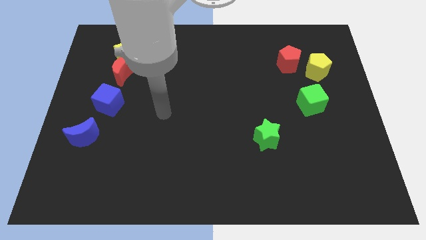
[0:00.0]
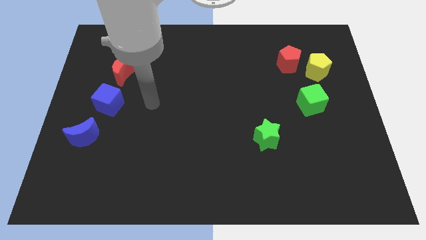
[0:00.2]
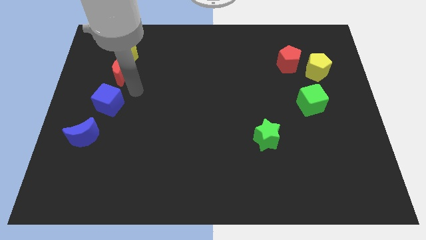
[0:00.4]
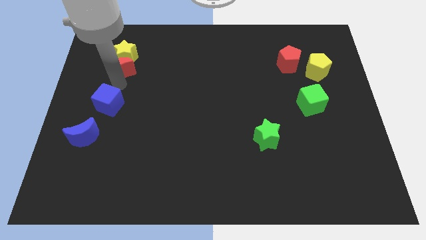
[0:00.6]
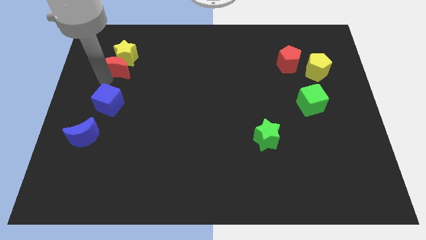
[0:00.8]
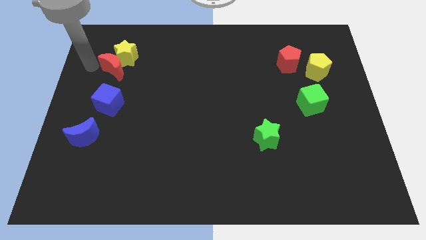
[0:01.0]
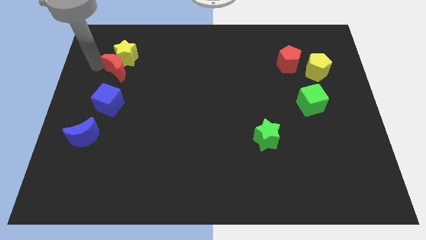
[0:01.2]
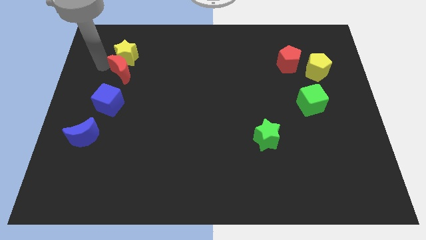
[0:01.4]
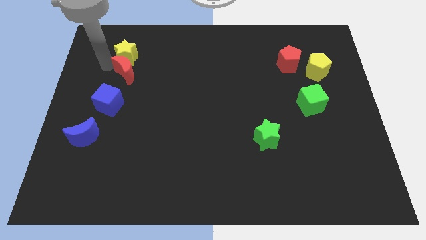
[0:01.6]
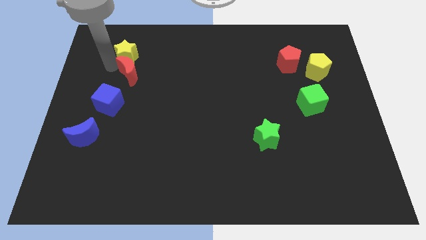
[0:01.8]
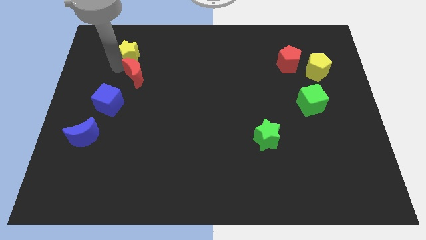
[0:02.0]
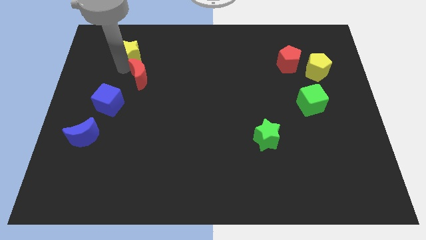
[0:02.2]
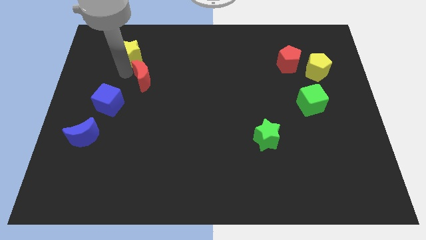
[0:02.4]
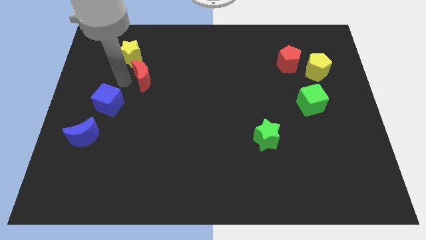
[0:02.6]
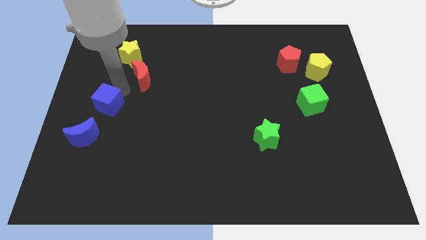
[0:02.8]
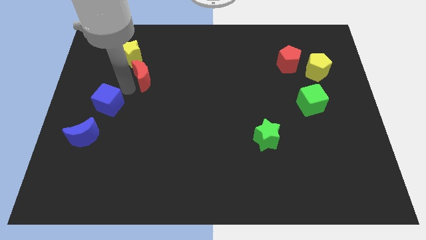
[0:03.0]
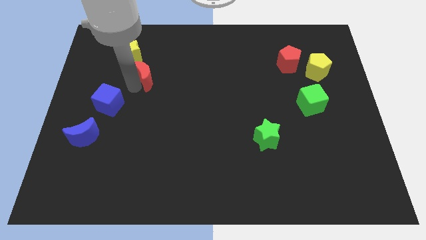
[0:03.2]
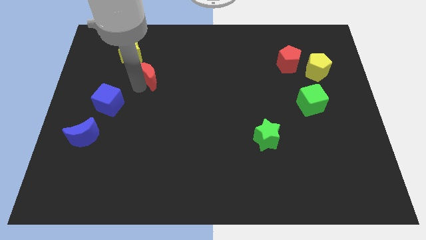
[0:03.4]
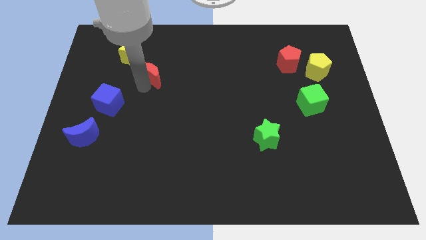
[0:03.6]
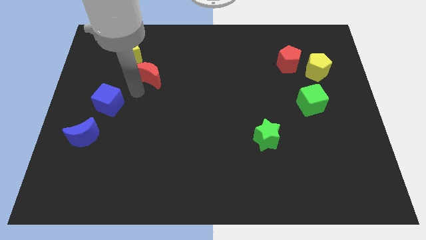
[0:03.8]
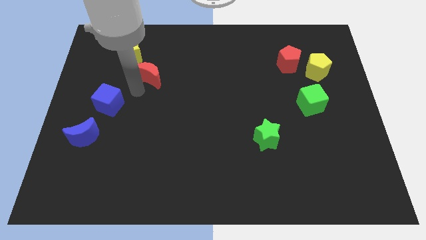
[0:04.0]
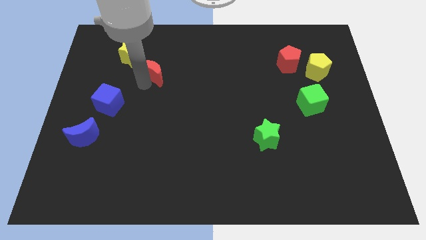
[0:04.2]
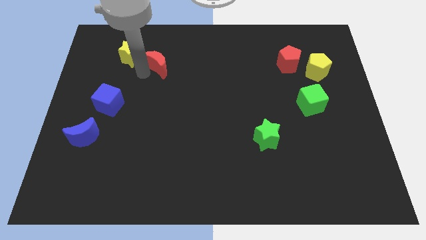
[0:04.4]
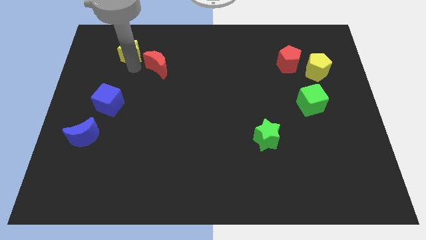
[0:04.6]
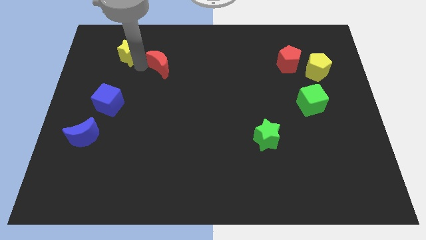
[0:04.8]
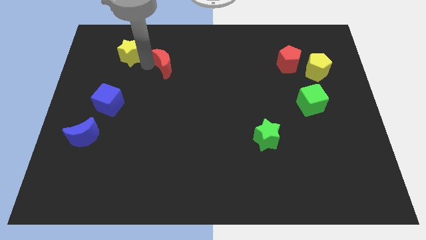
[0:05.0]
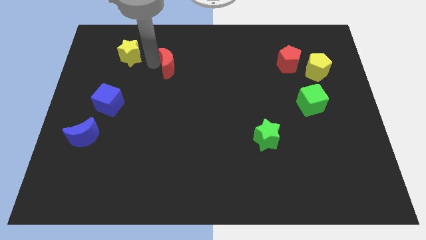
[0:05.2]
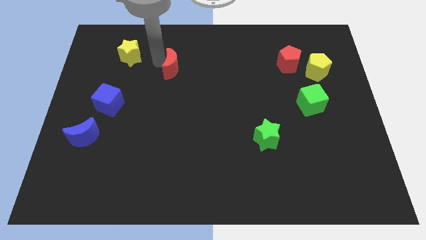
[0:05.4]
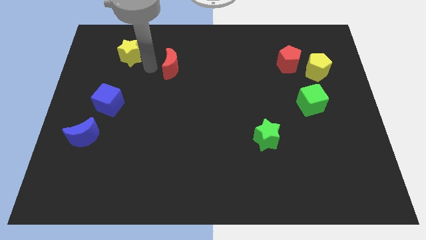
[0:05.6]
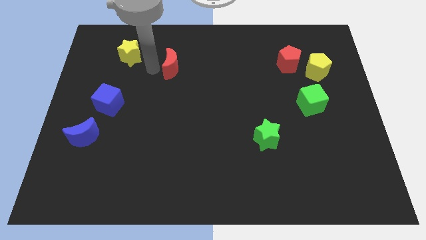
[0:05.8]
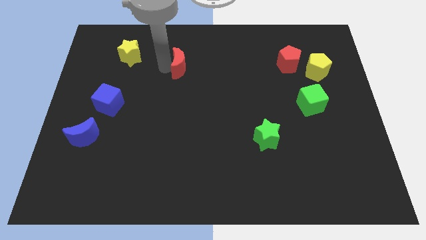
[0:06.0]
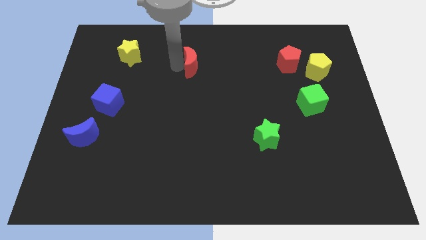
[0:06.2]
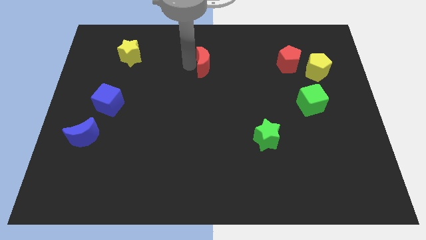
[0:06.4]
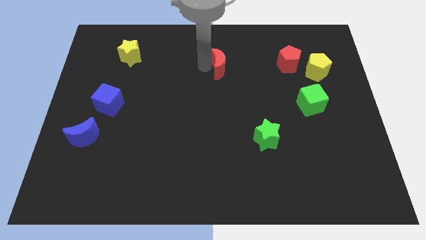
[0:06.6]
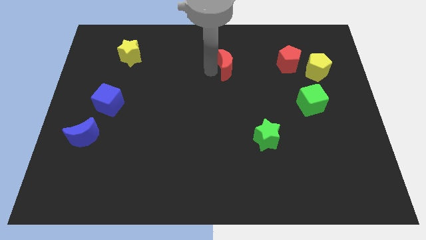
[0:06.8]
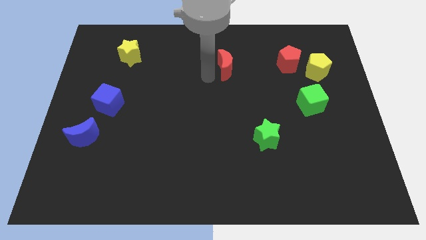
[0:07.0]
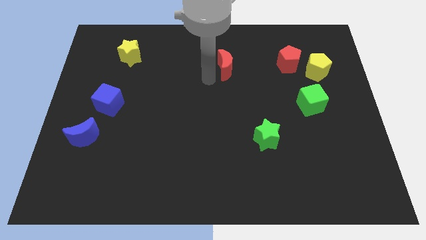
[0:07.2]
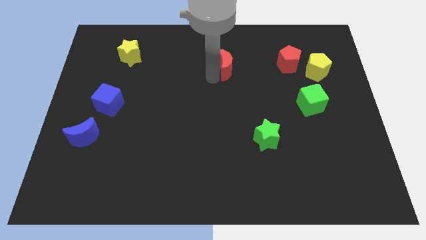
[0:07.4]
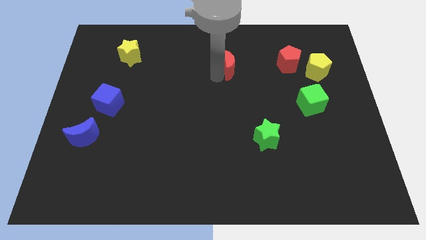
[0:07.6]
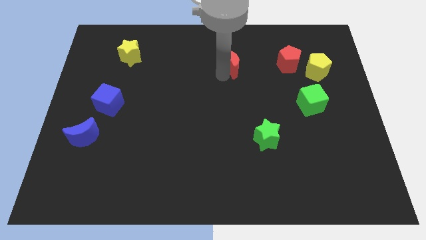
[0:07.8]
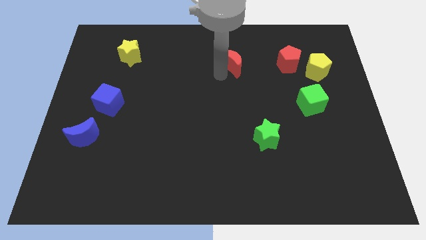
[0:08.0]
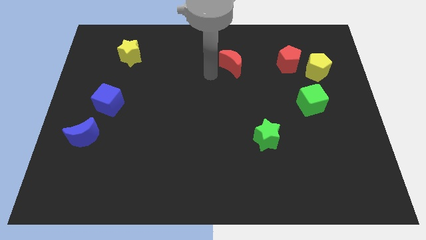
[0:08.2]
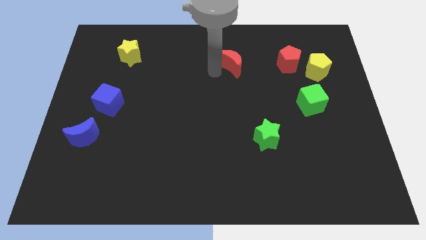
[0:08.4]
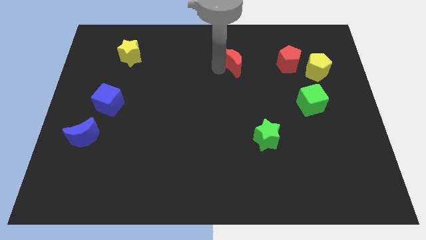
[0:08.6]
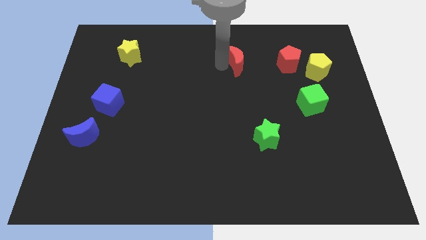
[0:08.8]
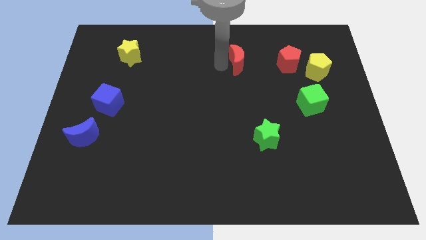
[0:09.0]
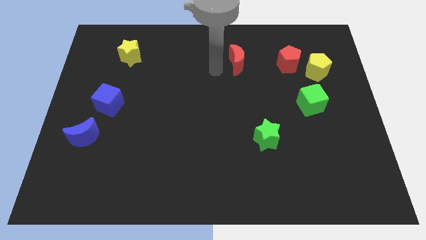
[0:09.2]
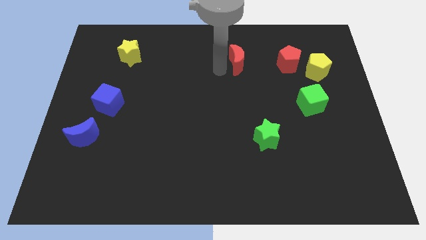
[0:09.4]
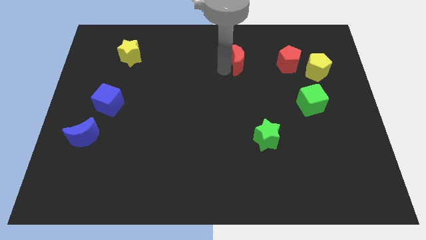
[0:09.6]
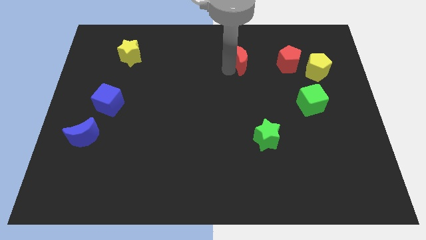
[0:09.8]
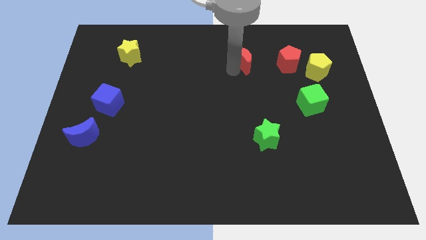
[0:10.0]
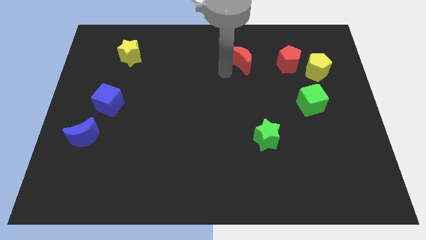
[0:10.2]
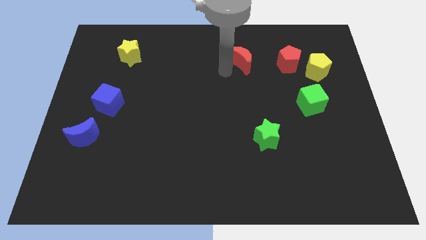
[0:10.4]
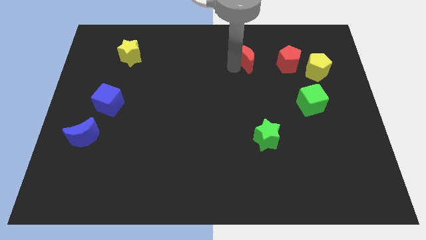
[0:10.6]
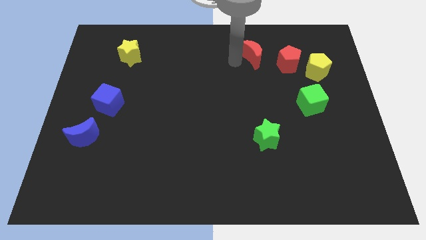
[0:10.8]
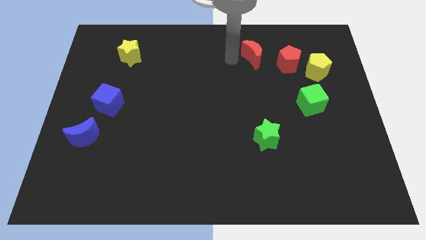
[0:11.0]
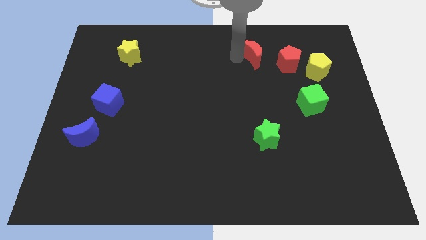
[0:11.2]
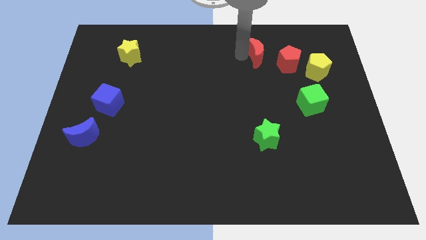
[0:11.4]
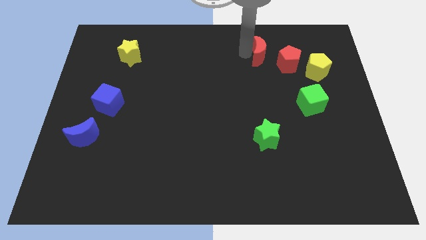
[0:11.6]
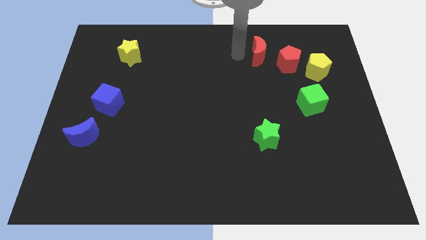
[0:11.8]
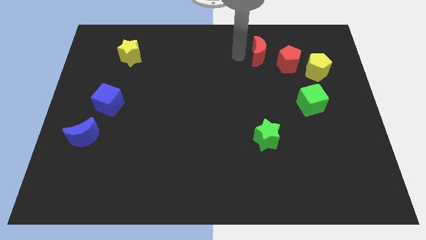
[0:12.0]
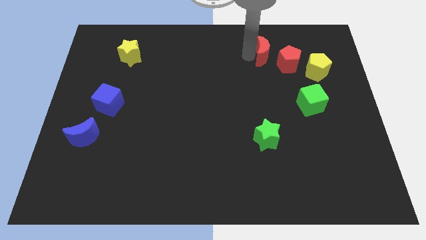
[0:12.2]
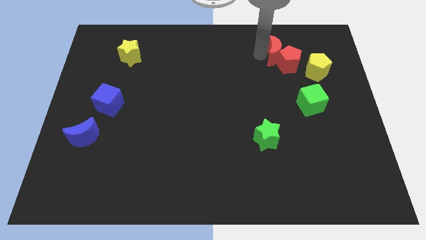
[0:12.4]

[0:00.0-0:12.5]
slide the red moon to the top left of the yellow pentagon

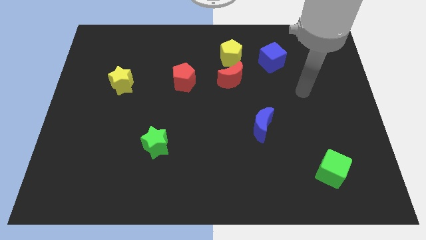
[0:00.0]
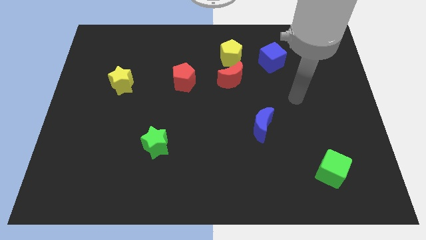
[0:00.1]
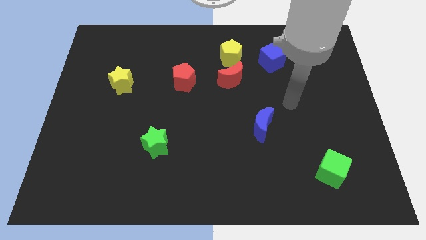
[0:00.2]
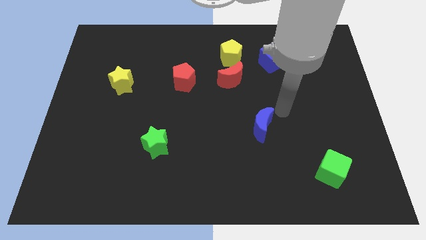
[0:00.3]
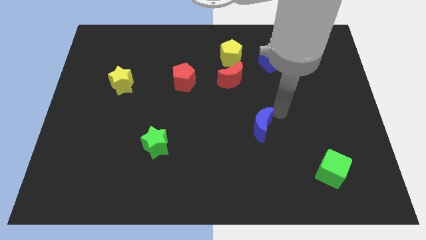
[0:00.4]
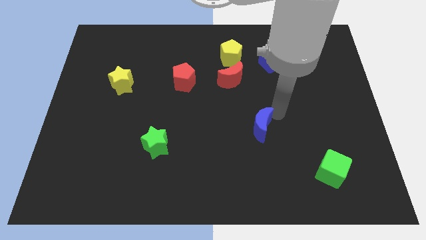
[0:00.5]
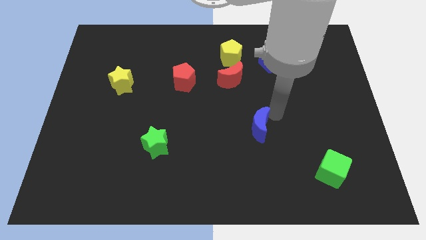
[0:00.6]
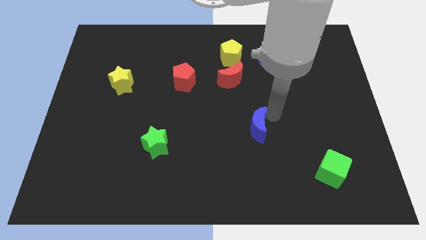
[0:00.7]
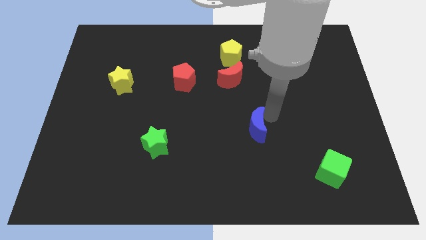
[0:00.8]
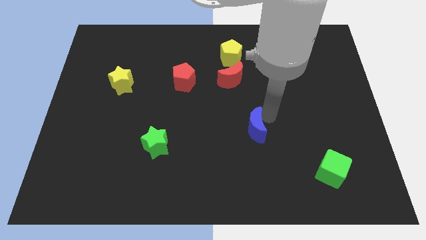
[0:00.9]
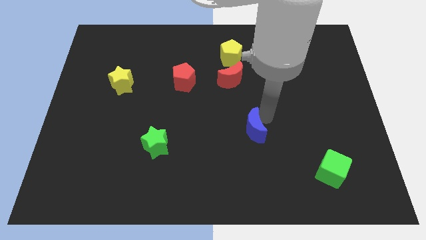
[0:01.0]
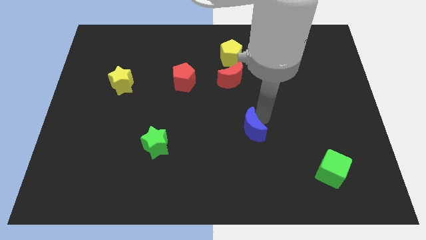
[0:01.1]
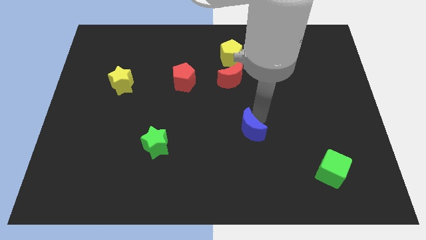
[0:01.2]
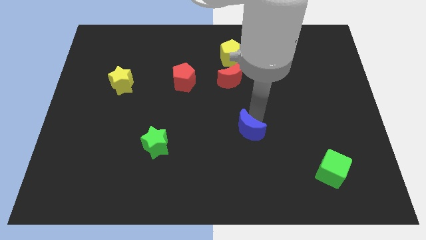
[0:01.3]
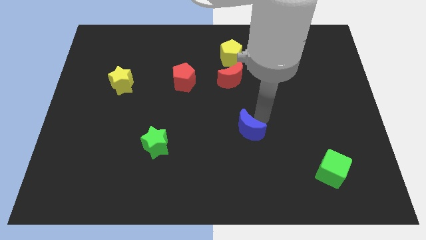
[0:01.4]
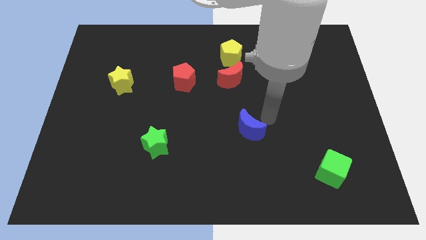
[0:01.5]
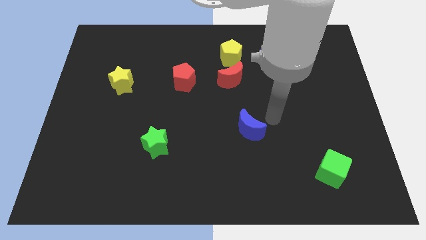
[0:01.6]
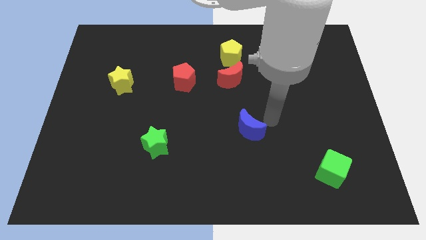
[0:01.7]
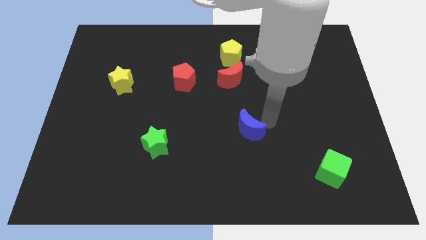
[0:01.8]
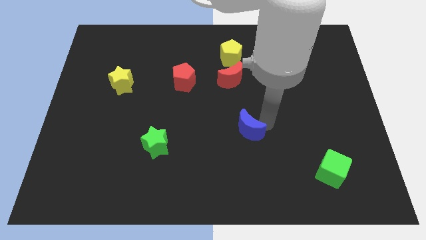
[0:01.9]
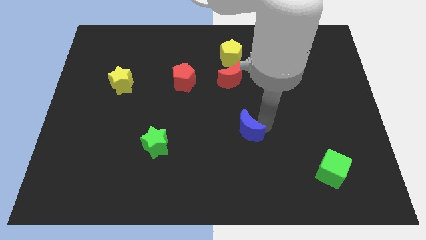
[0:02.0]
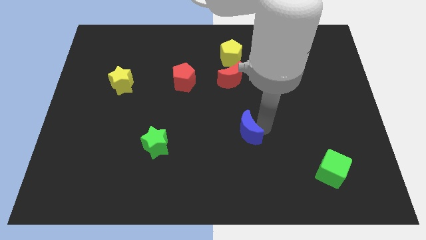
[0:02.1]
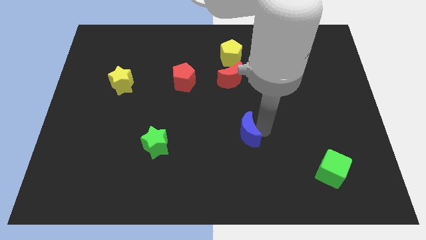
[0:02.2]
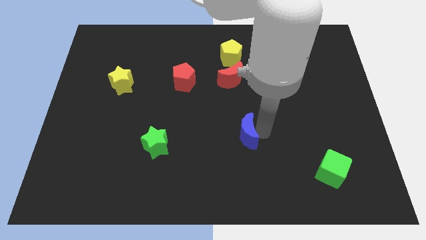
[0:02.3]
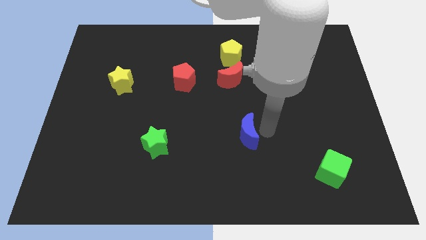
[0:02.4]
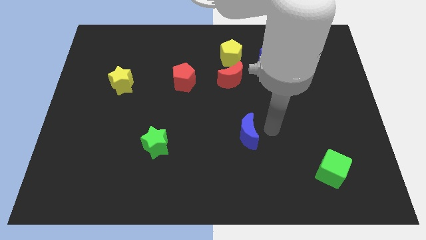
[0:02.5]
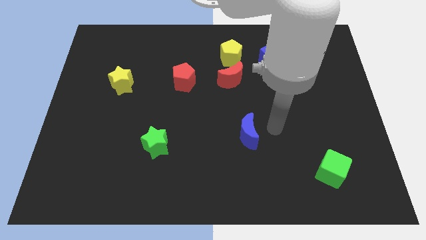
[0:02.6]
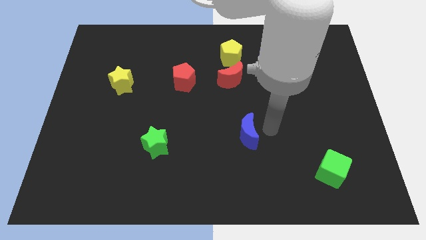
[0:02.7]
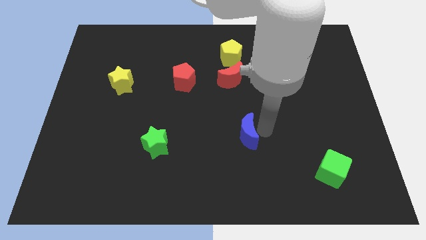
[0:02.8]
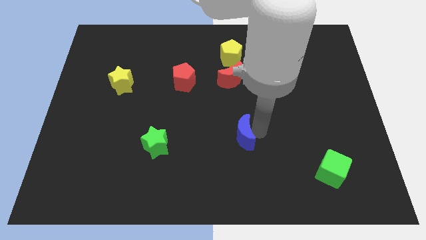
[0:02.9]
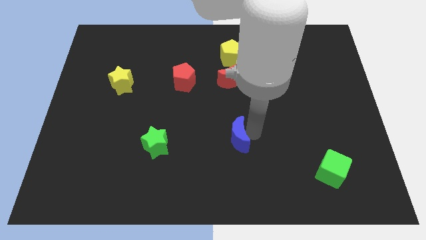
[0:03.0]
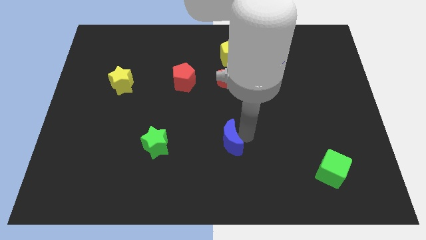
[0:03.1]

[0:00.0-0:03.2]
move the blue moon to the right of the green star
